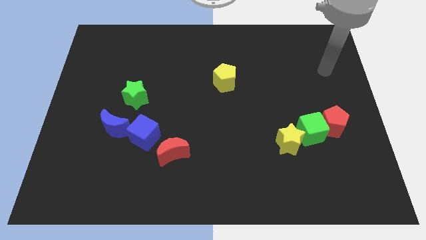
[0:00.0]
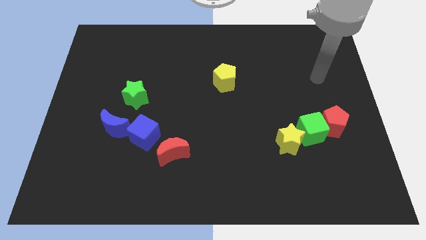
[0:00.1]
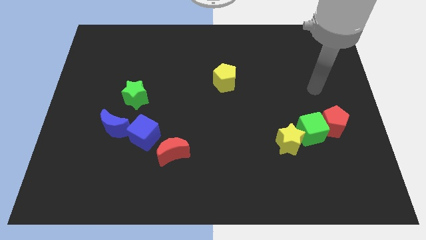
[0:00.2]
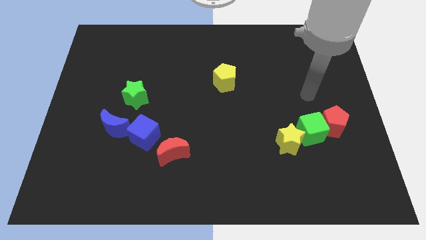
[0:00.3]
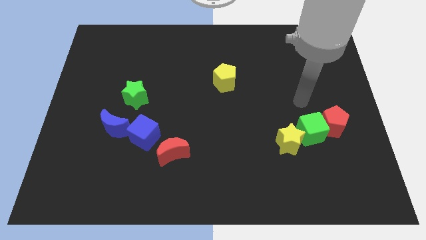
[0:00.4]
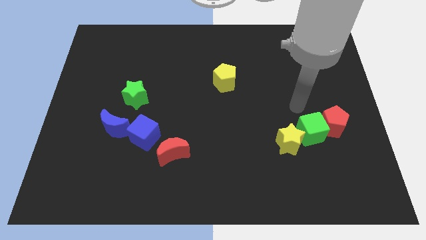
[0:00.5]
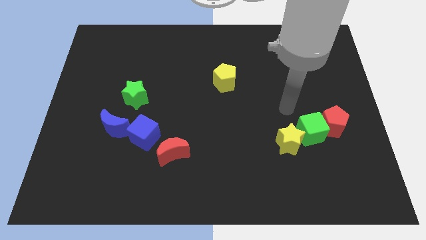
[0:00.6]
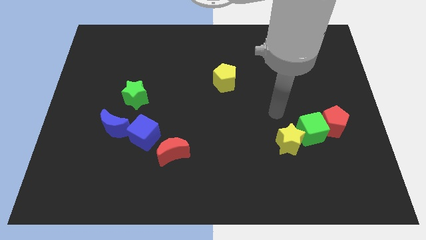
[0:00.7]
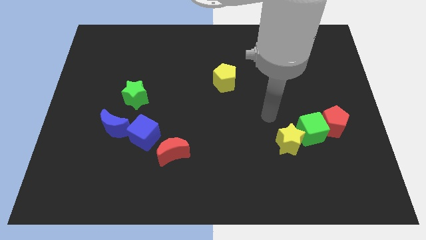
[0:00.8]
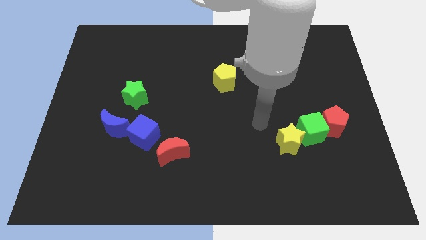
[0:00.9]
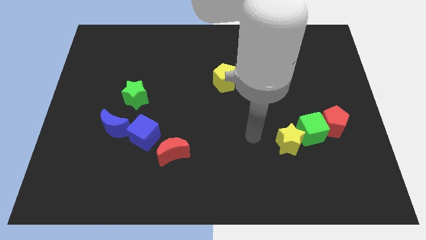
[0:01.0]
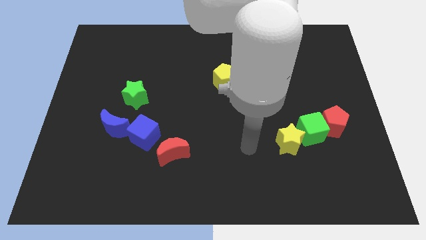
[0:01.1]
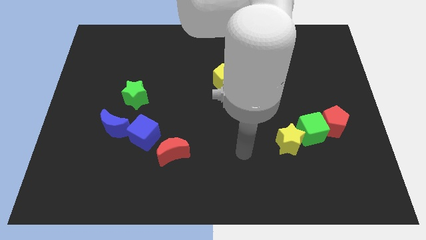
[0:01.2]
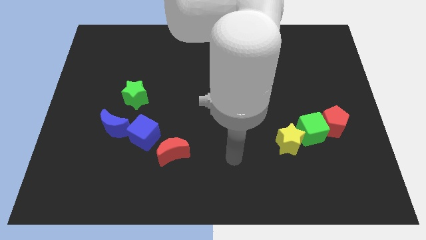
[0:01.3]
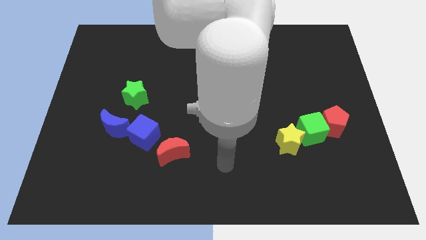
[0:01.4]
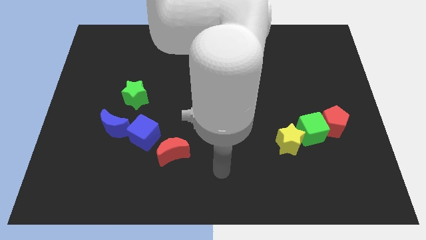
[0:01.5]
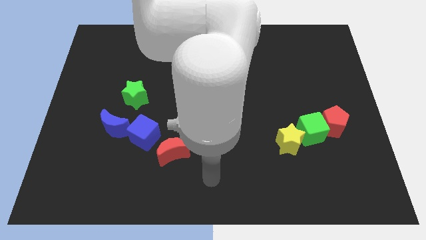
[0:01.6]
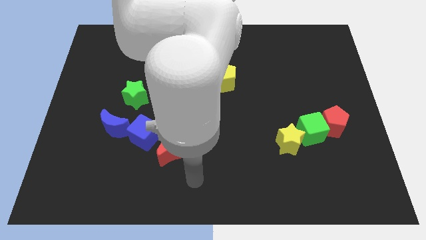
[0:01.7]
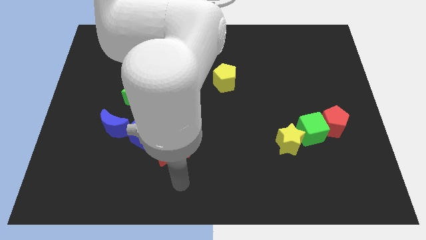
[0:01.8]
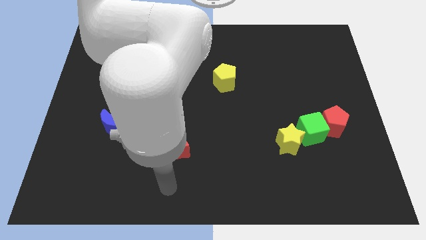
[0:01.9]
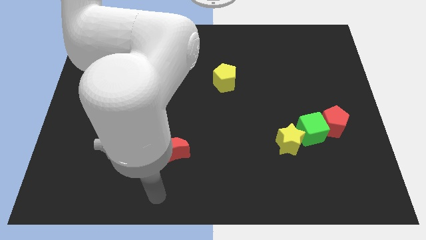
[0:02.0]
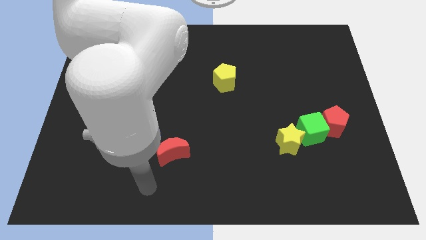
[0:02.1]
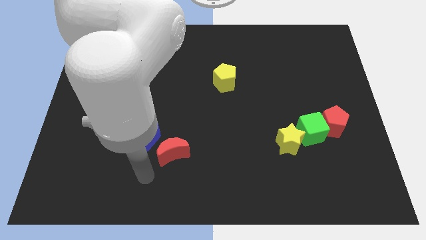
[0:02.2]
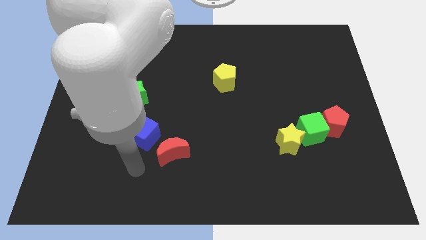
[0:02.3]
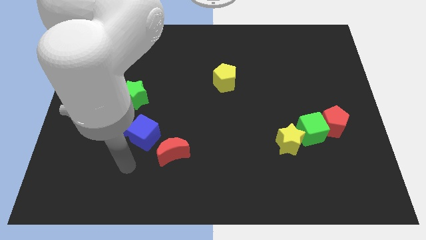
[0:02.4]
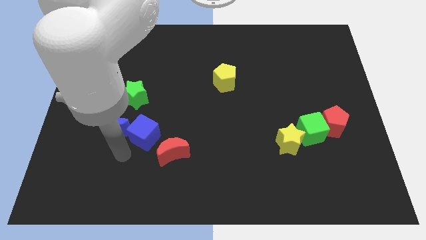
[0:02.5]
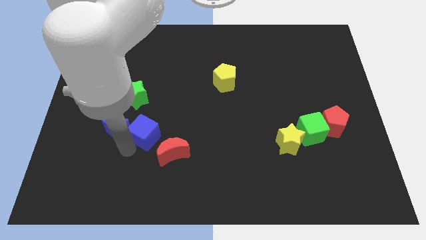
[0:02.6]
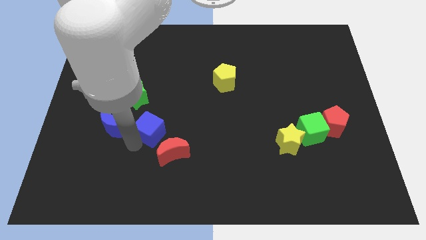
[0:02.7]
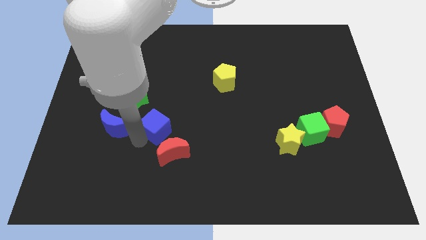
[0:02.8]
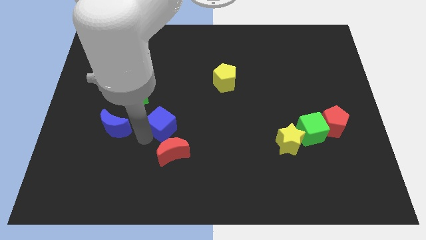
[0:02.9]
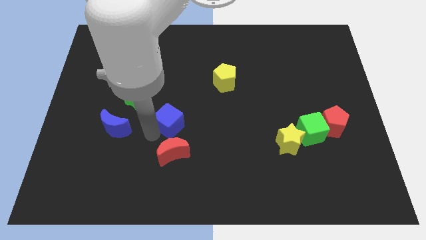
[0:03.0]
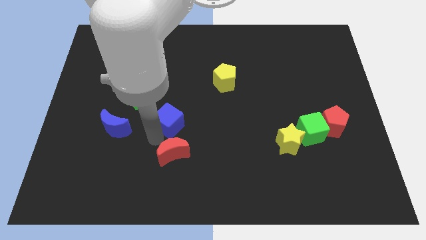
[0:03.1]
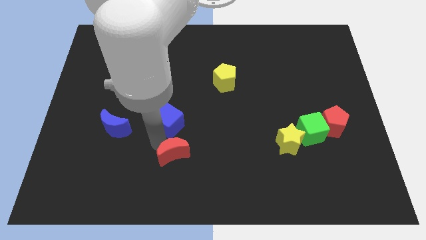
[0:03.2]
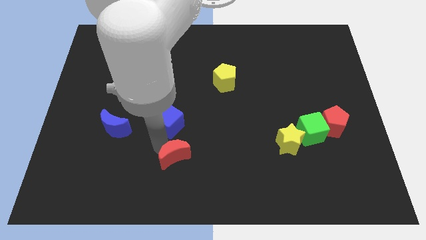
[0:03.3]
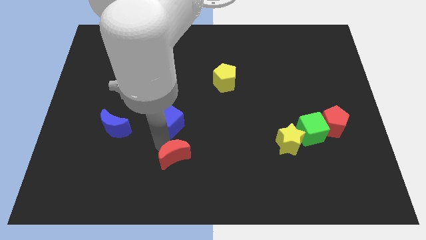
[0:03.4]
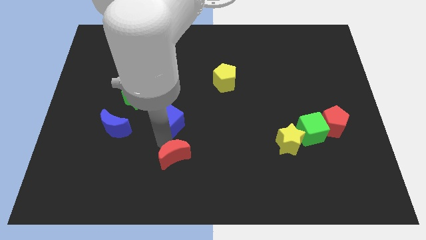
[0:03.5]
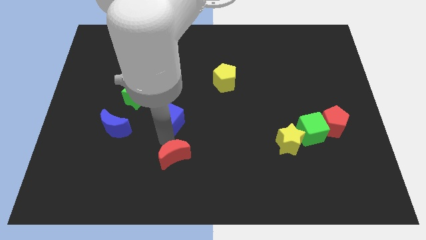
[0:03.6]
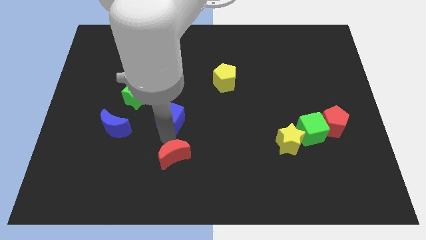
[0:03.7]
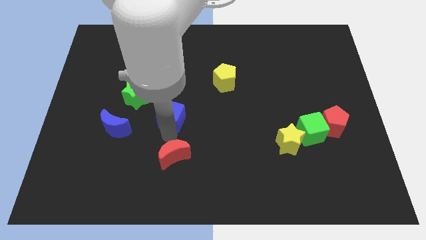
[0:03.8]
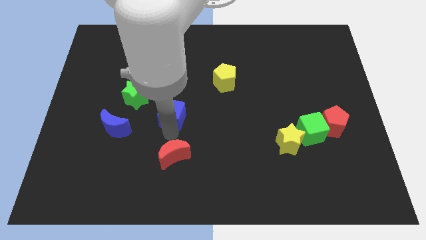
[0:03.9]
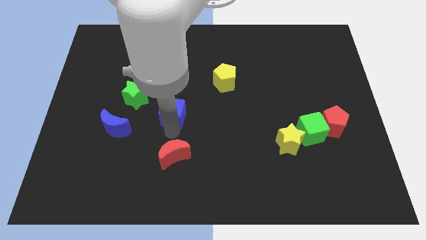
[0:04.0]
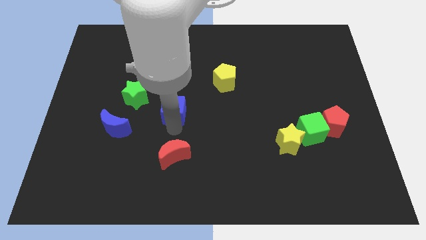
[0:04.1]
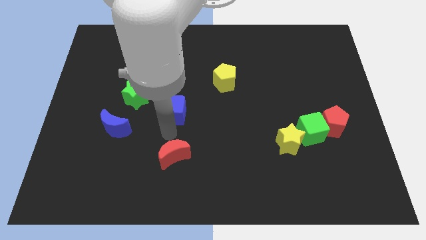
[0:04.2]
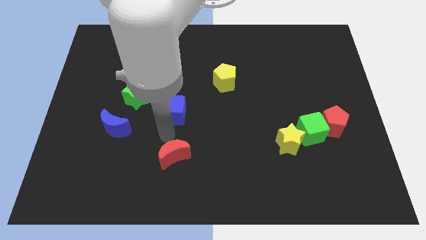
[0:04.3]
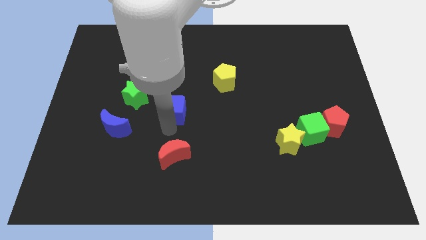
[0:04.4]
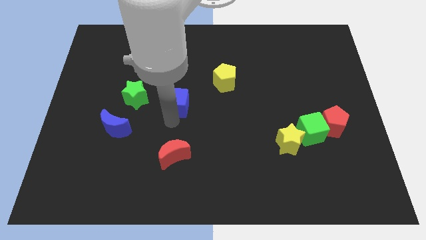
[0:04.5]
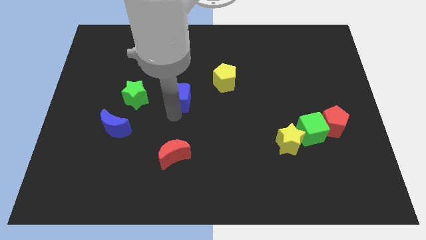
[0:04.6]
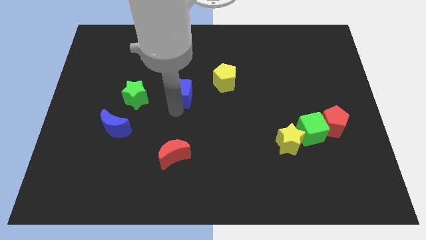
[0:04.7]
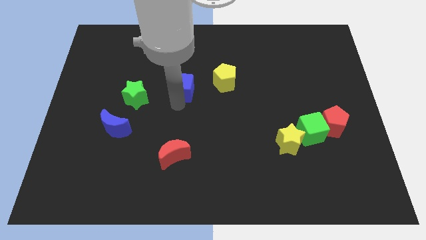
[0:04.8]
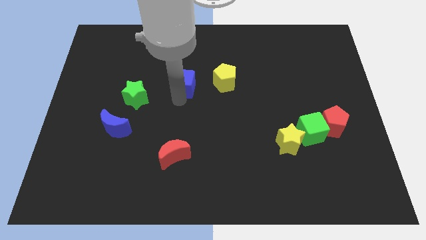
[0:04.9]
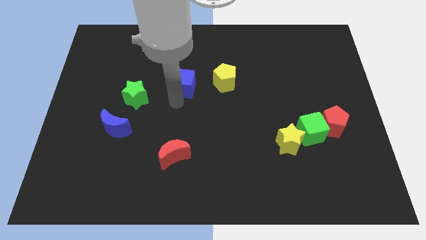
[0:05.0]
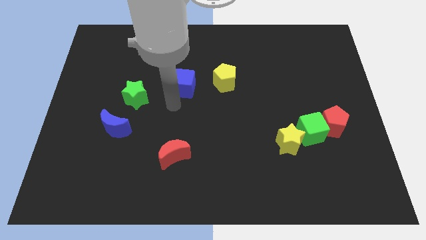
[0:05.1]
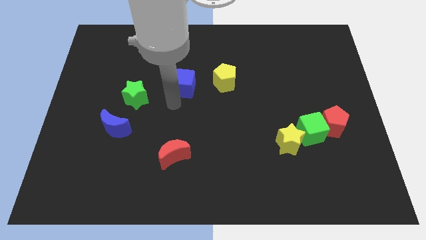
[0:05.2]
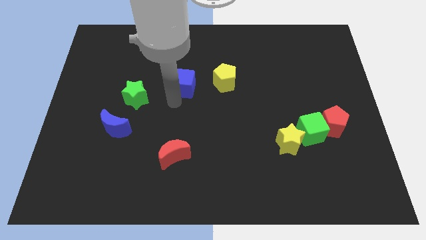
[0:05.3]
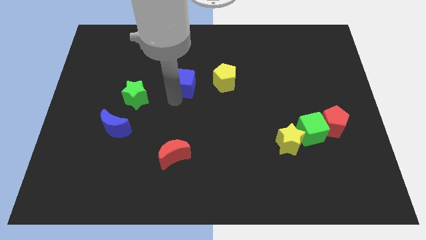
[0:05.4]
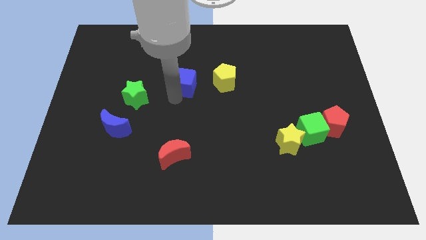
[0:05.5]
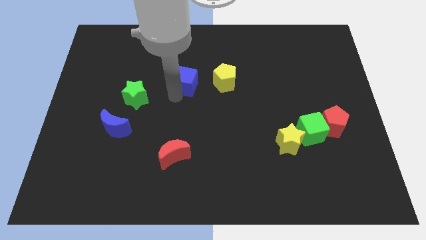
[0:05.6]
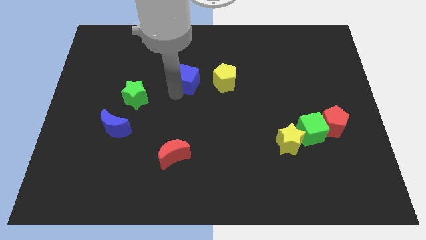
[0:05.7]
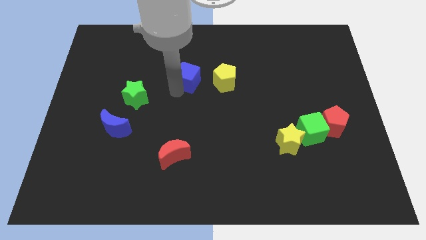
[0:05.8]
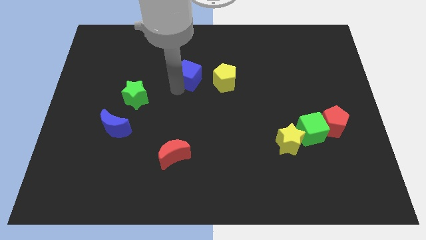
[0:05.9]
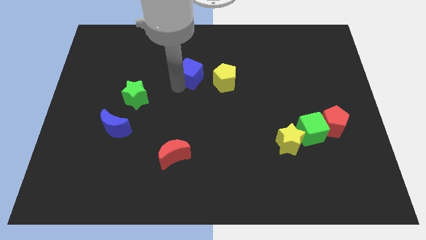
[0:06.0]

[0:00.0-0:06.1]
push the blue cube to the top left side of the yellow pentagon
